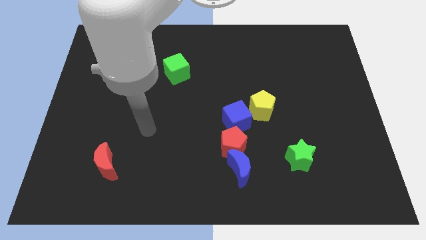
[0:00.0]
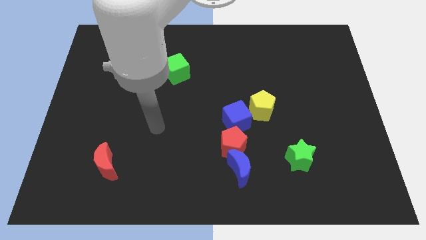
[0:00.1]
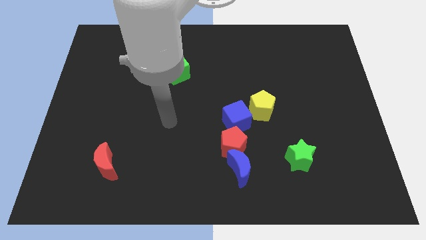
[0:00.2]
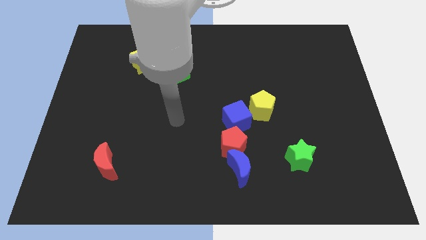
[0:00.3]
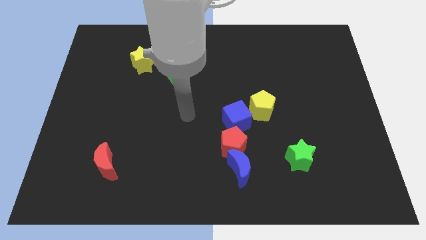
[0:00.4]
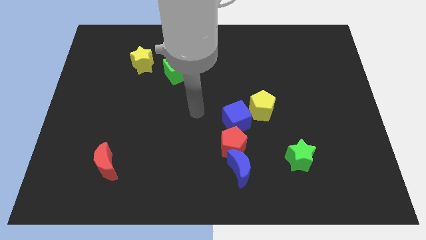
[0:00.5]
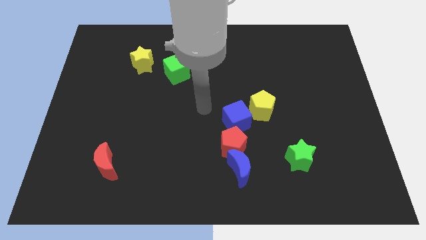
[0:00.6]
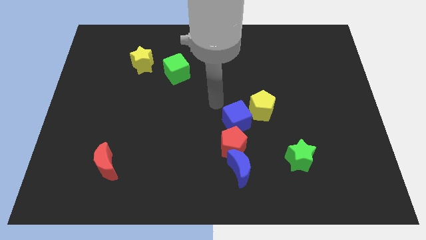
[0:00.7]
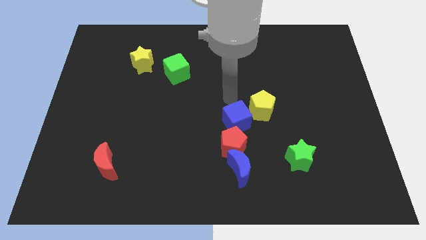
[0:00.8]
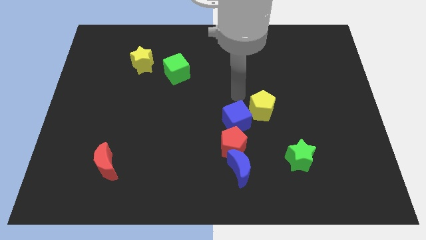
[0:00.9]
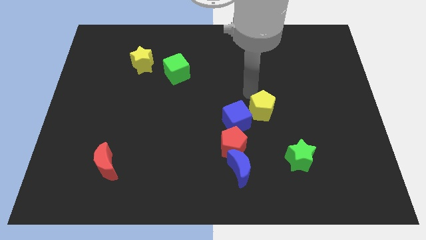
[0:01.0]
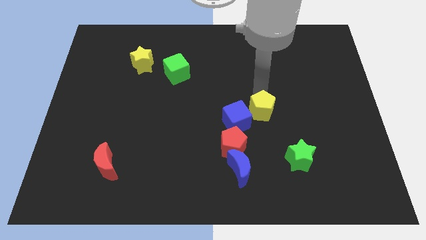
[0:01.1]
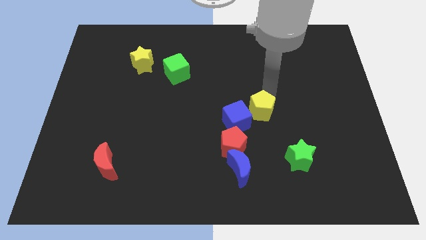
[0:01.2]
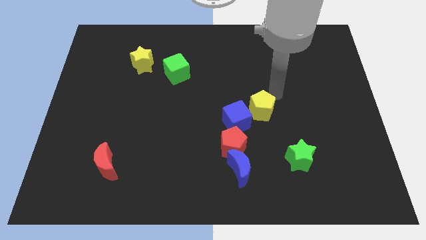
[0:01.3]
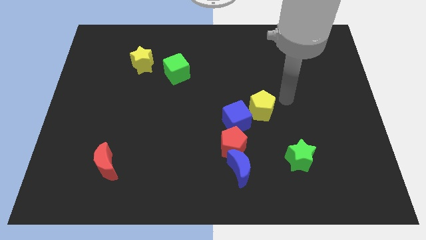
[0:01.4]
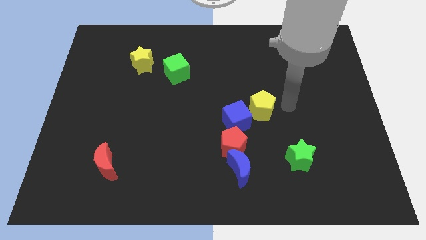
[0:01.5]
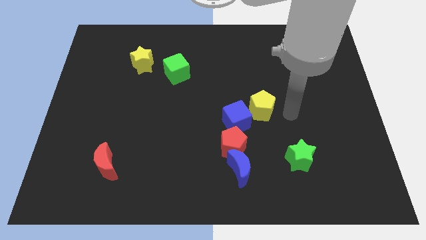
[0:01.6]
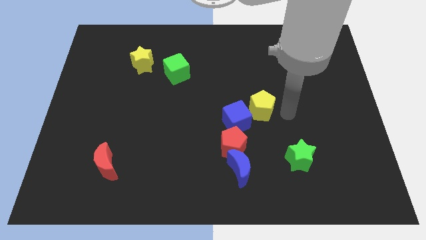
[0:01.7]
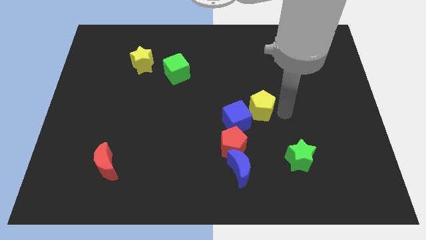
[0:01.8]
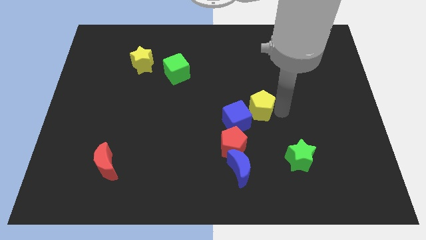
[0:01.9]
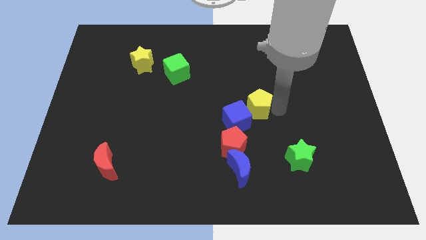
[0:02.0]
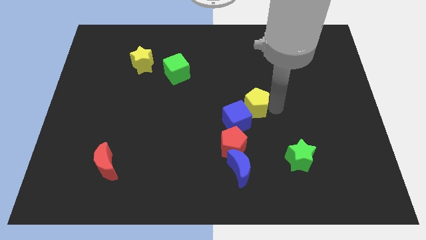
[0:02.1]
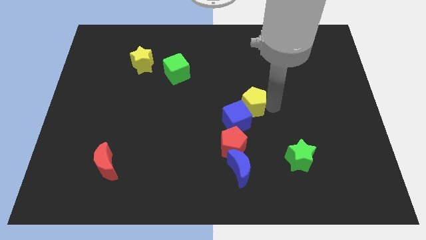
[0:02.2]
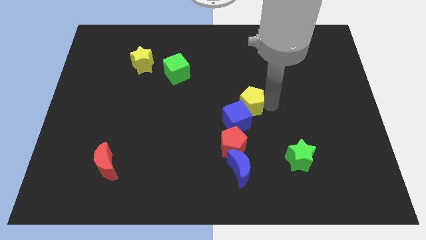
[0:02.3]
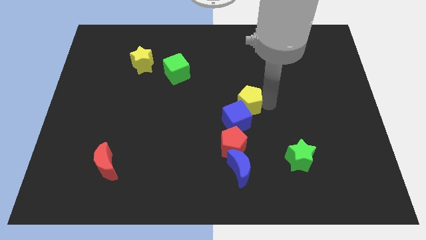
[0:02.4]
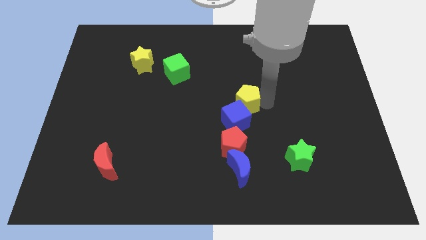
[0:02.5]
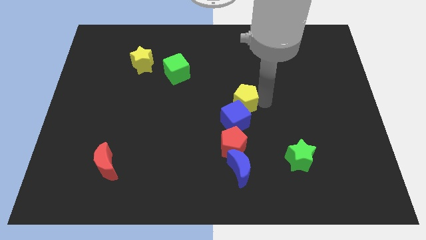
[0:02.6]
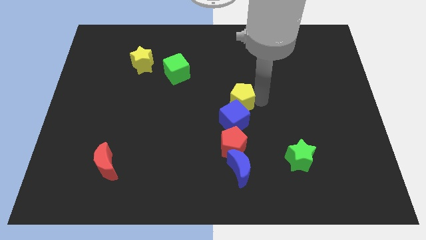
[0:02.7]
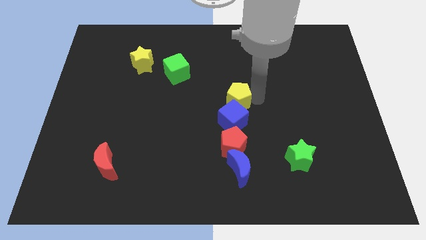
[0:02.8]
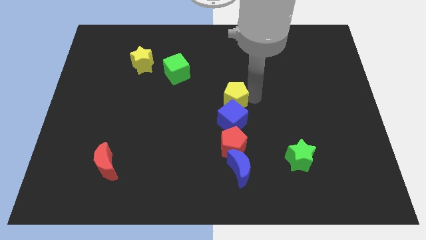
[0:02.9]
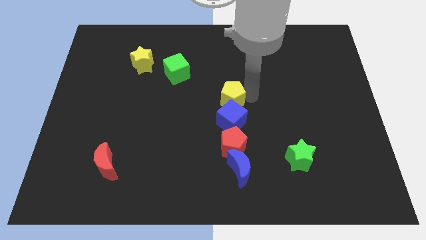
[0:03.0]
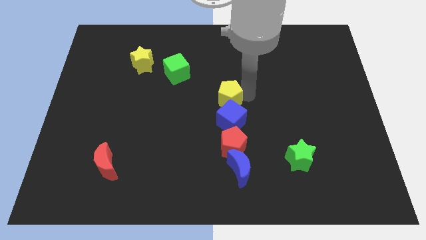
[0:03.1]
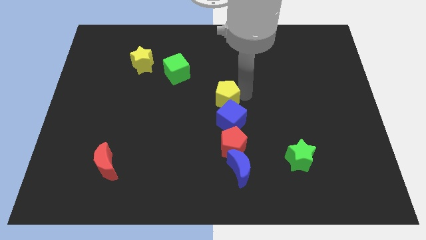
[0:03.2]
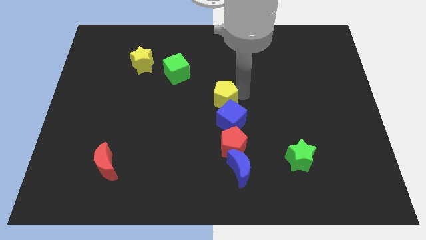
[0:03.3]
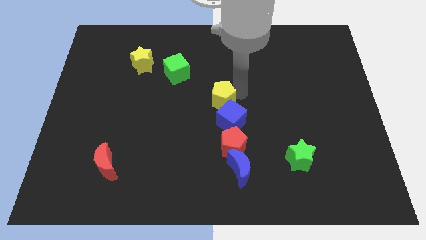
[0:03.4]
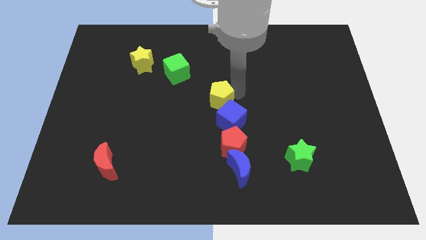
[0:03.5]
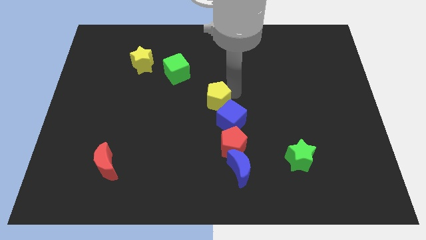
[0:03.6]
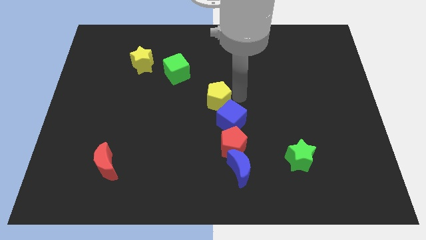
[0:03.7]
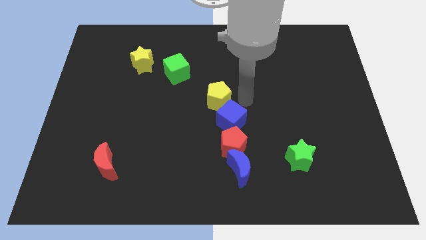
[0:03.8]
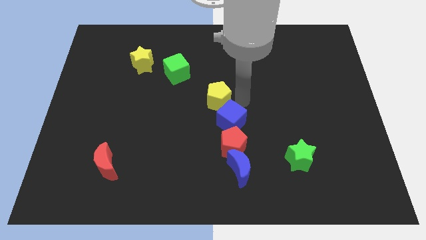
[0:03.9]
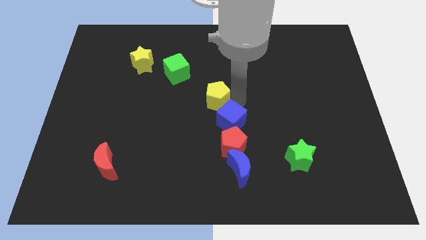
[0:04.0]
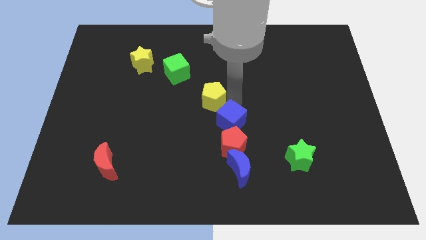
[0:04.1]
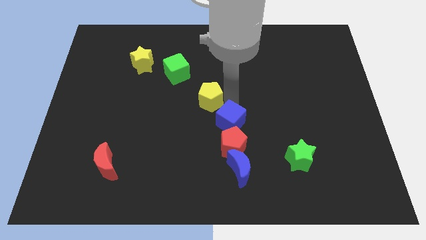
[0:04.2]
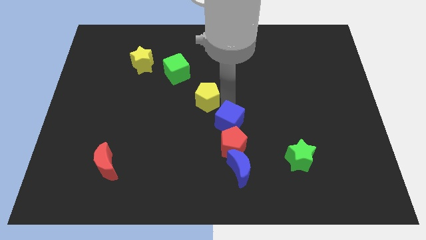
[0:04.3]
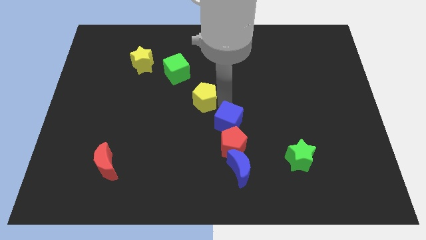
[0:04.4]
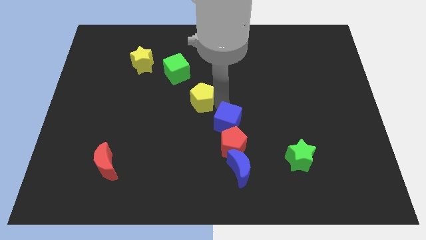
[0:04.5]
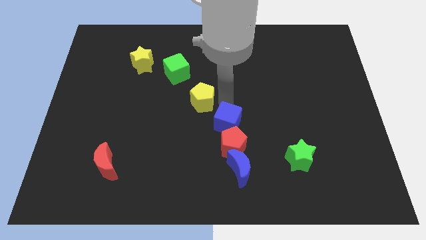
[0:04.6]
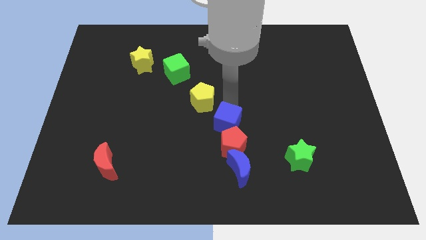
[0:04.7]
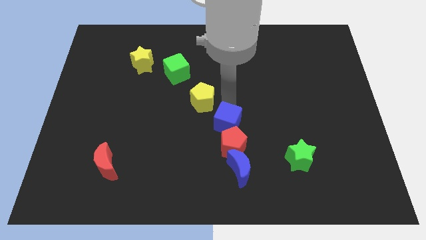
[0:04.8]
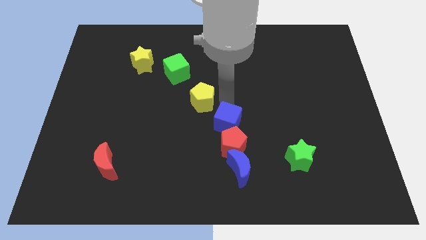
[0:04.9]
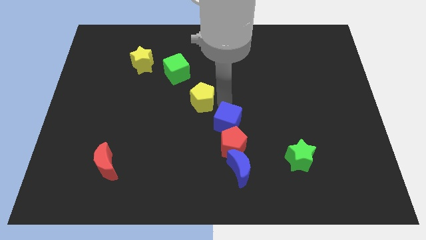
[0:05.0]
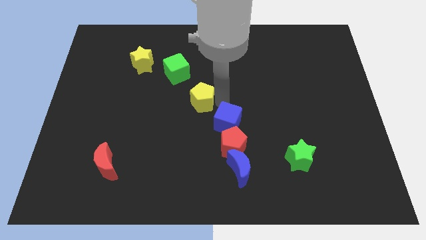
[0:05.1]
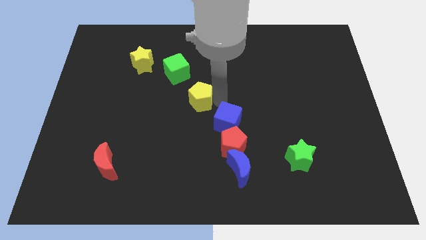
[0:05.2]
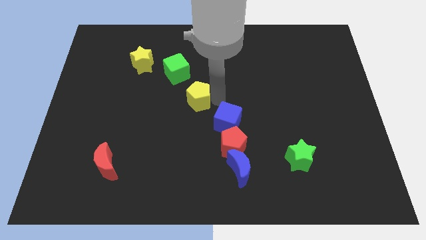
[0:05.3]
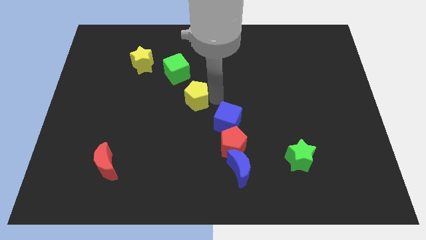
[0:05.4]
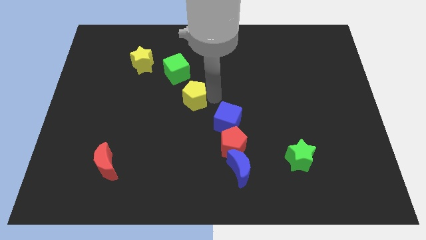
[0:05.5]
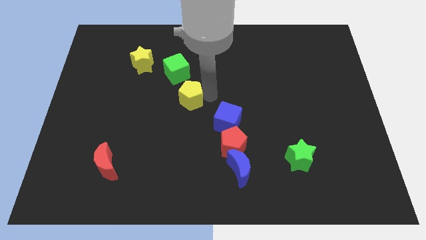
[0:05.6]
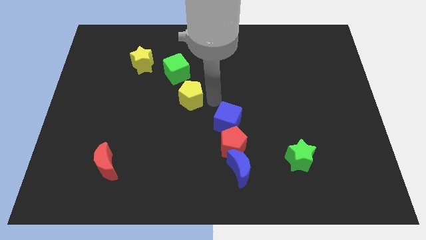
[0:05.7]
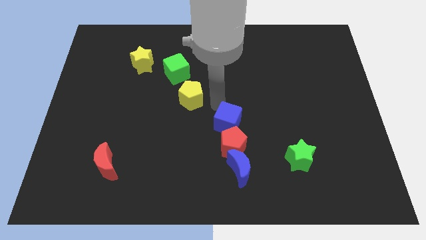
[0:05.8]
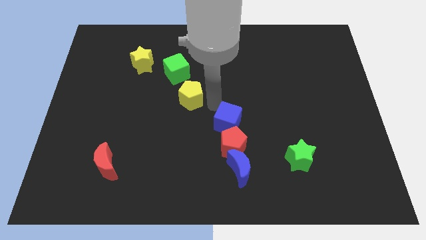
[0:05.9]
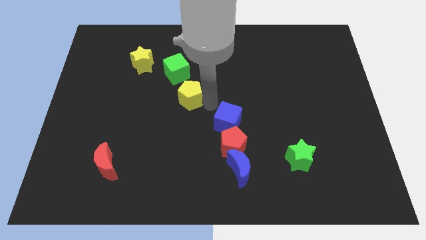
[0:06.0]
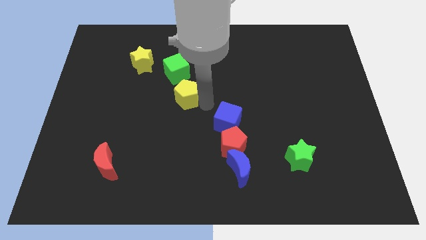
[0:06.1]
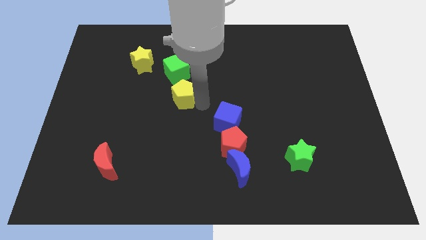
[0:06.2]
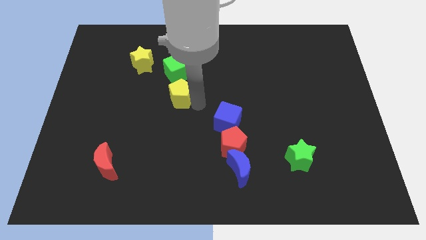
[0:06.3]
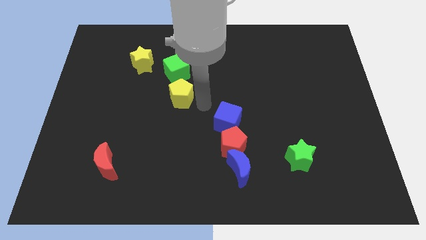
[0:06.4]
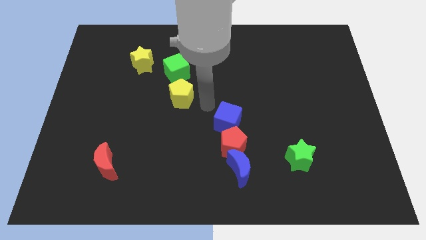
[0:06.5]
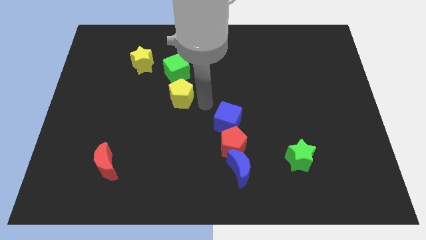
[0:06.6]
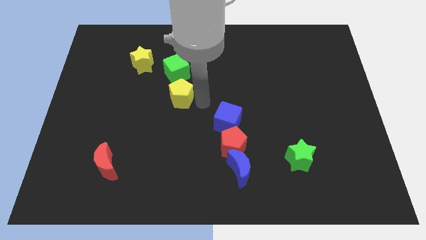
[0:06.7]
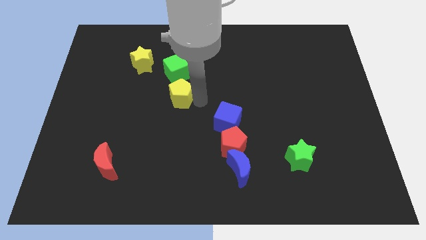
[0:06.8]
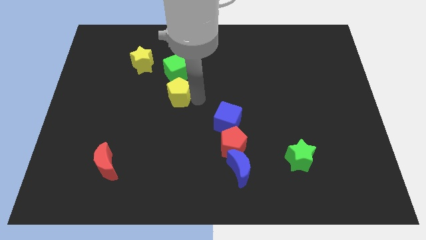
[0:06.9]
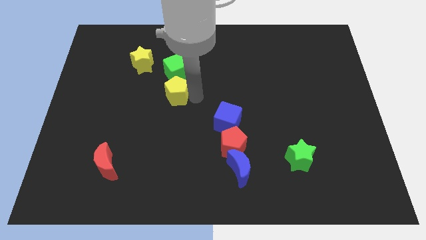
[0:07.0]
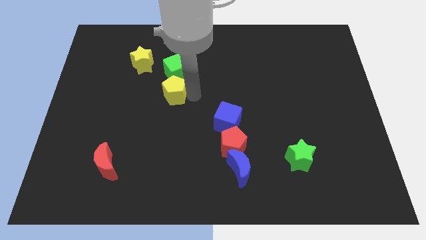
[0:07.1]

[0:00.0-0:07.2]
put the yellow pentagon to the bottom left of the green cube

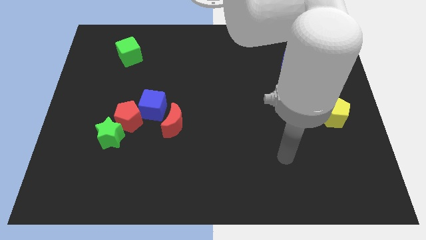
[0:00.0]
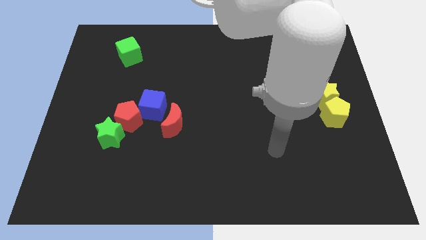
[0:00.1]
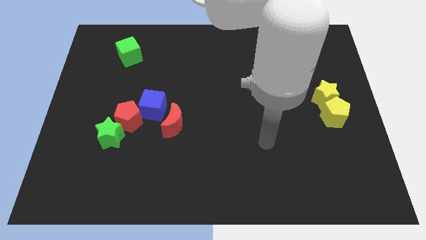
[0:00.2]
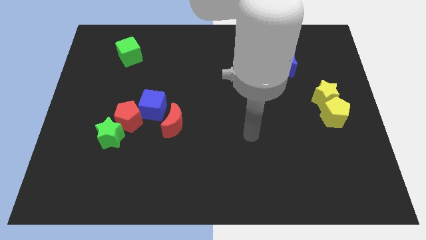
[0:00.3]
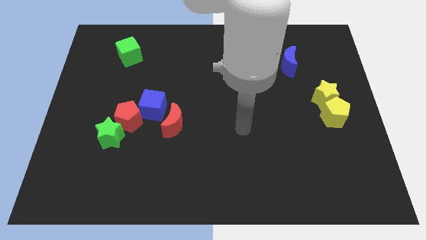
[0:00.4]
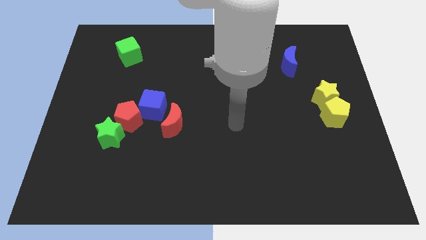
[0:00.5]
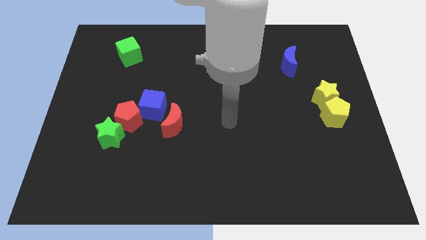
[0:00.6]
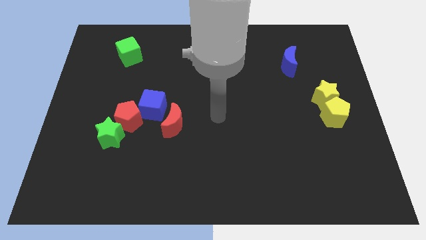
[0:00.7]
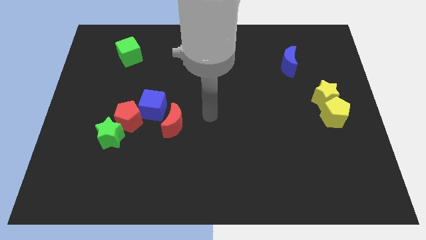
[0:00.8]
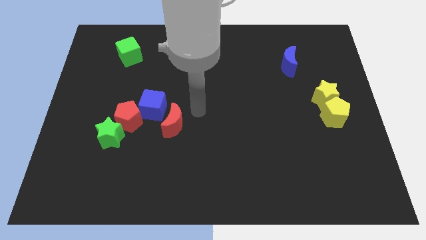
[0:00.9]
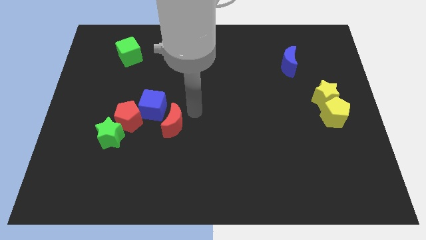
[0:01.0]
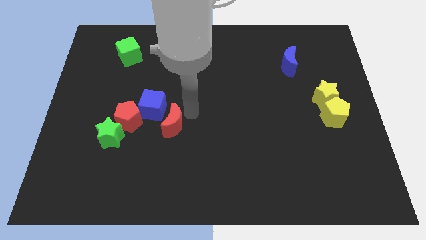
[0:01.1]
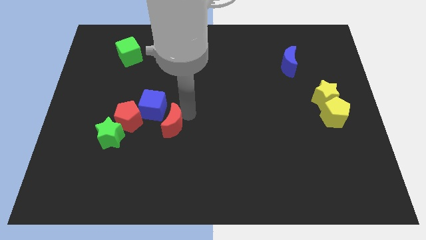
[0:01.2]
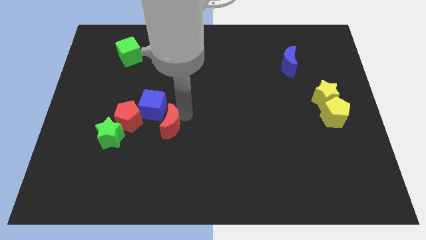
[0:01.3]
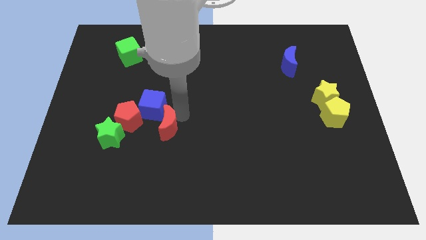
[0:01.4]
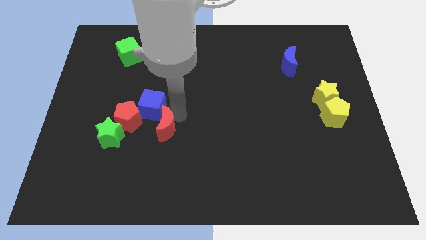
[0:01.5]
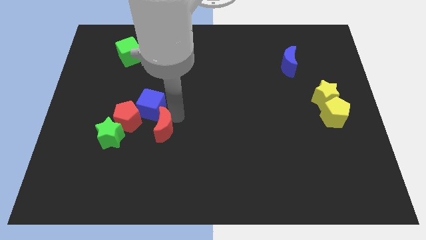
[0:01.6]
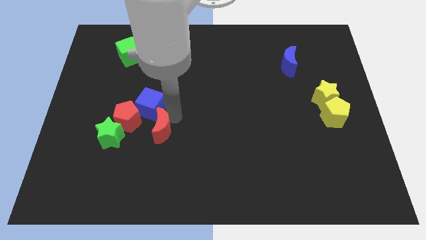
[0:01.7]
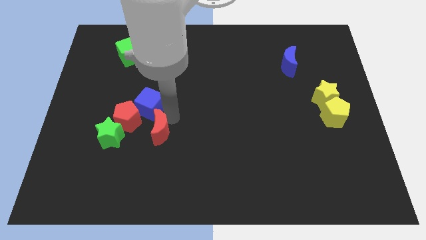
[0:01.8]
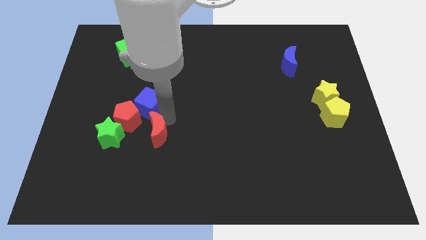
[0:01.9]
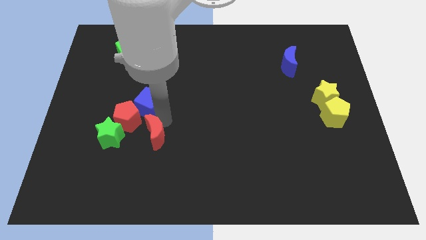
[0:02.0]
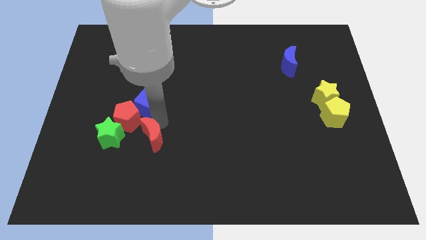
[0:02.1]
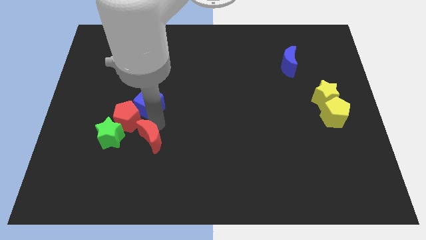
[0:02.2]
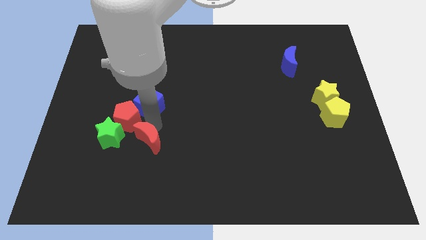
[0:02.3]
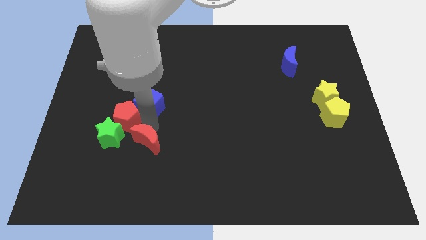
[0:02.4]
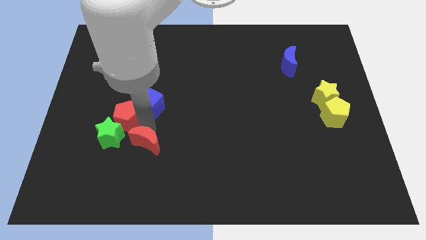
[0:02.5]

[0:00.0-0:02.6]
put the red moon to the bottom right side of the green star
